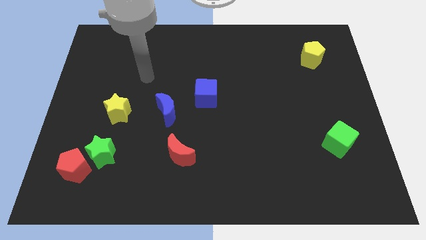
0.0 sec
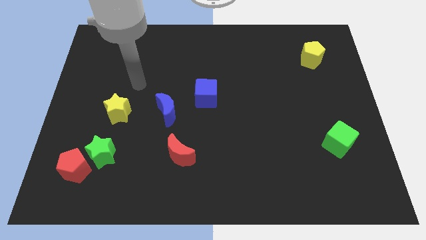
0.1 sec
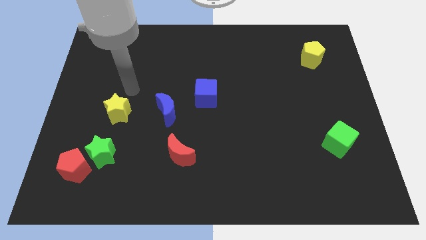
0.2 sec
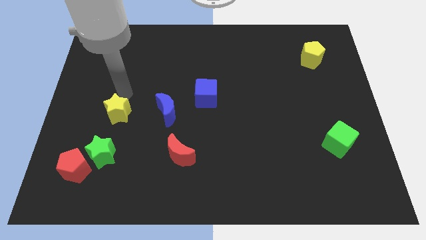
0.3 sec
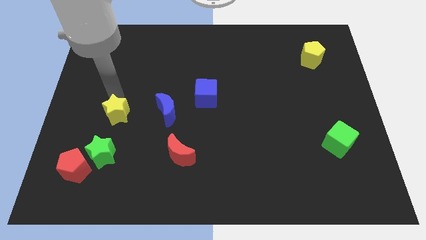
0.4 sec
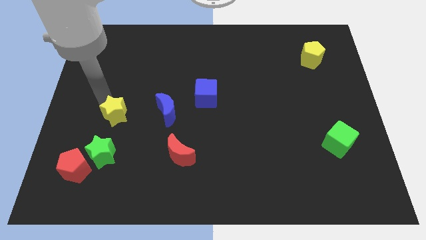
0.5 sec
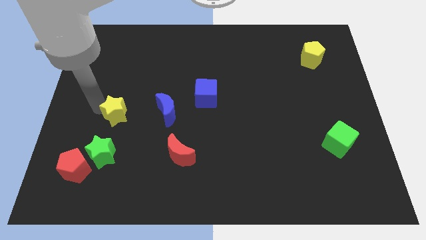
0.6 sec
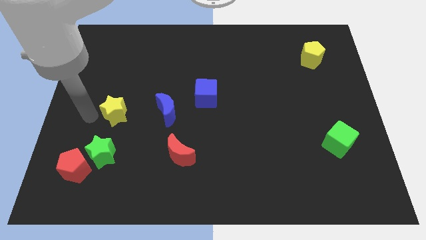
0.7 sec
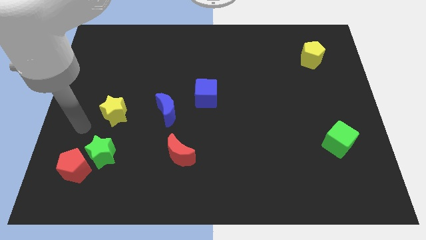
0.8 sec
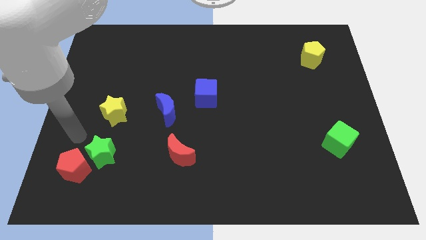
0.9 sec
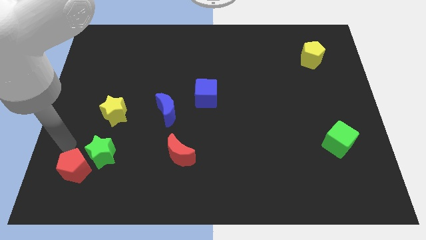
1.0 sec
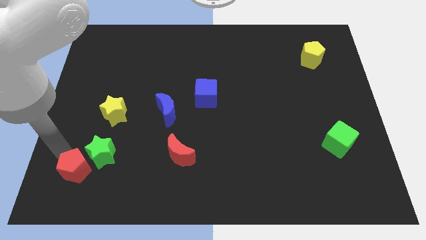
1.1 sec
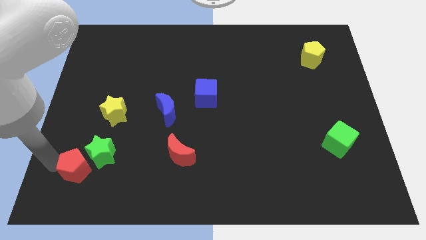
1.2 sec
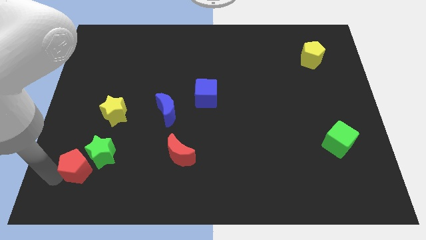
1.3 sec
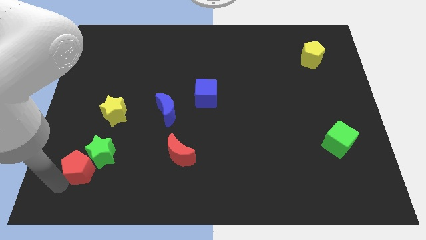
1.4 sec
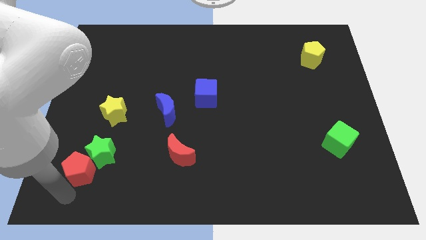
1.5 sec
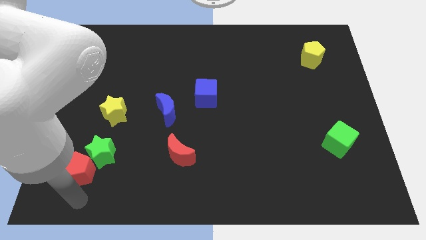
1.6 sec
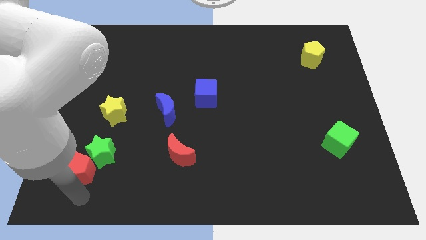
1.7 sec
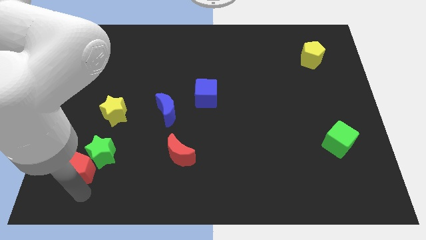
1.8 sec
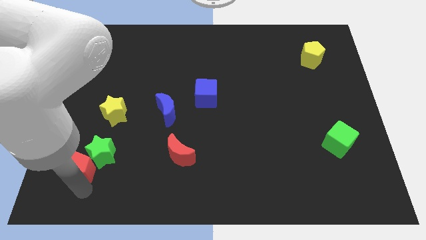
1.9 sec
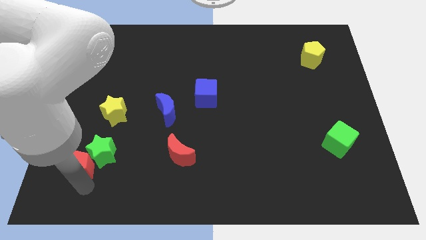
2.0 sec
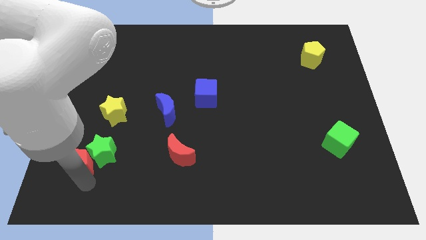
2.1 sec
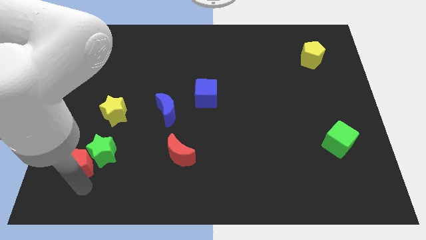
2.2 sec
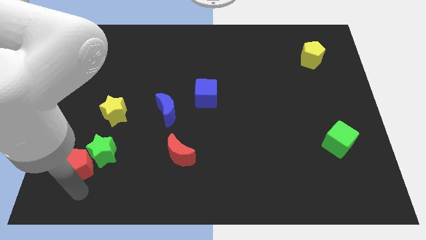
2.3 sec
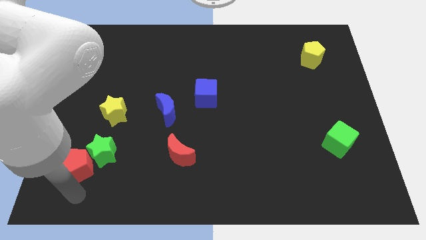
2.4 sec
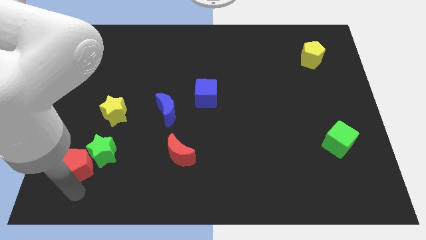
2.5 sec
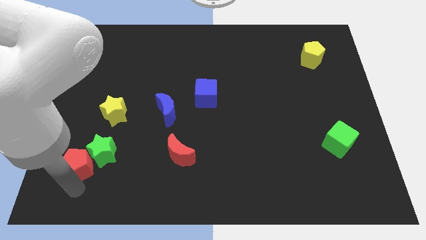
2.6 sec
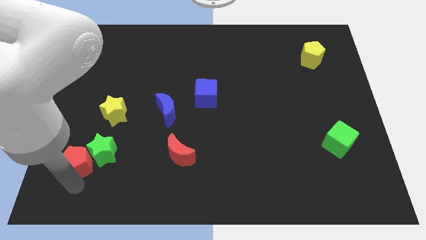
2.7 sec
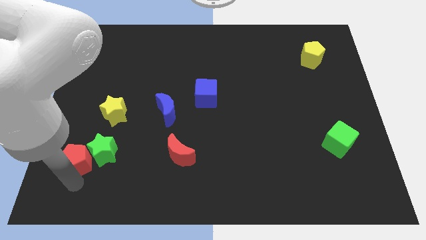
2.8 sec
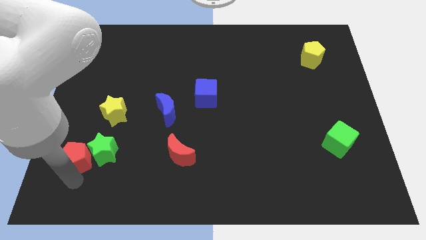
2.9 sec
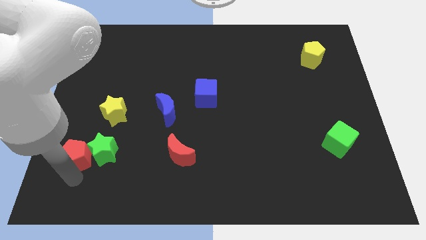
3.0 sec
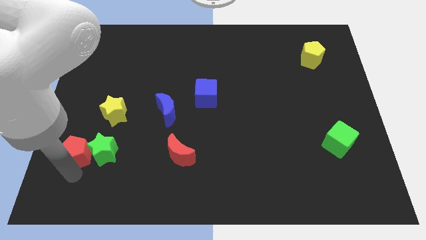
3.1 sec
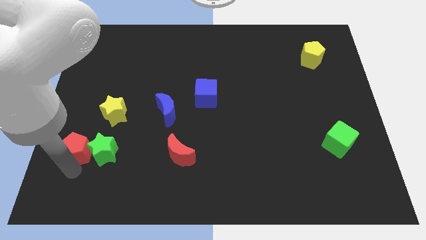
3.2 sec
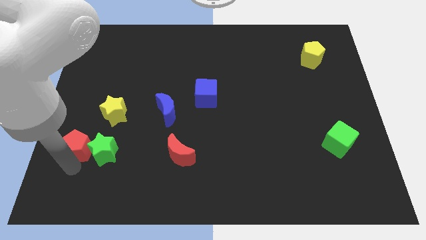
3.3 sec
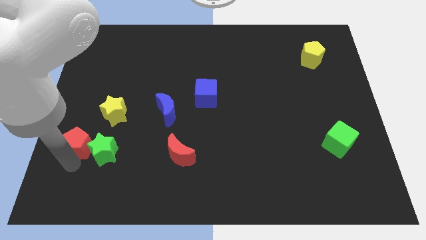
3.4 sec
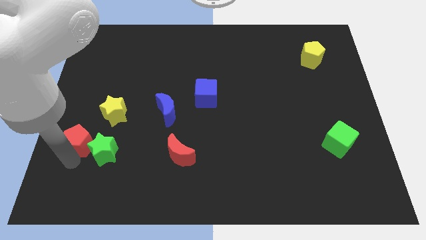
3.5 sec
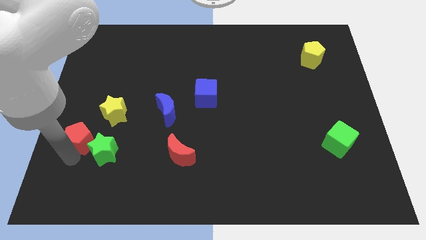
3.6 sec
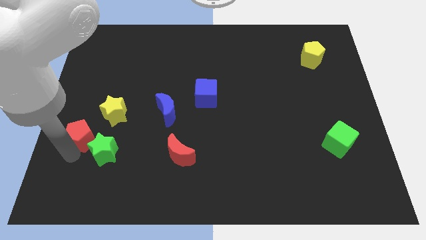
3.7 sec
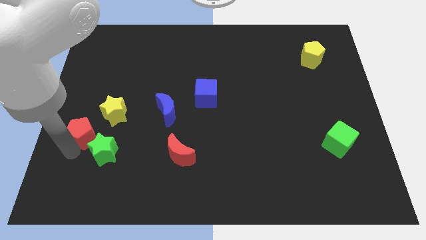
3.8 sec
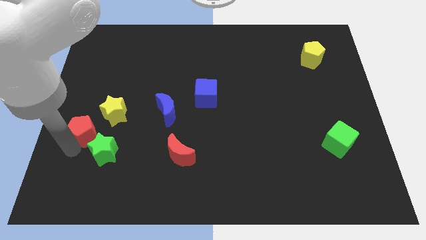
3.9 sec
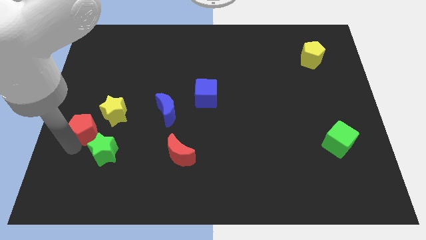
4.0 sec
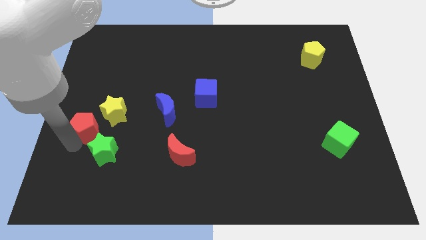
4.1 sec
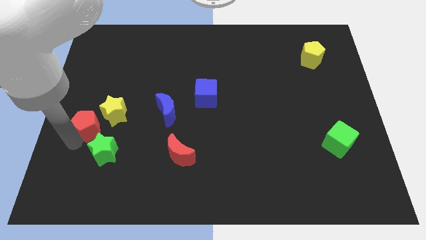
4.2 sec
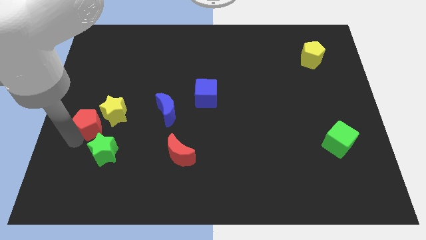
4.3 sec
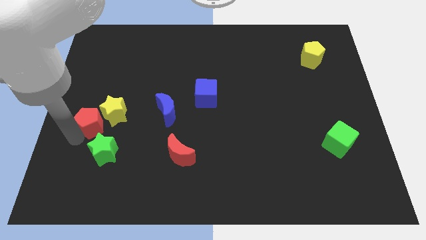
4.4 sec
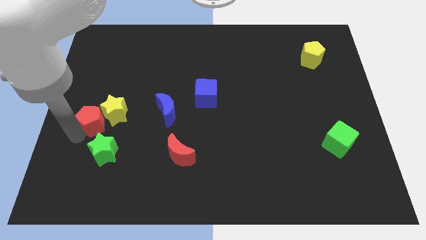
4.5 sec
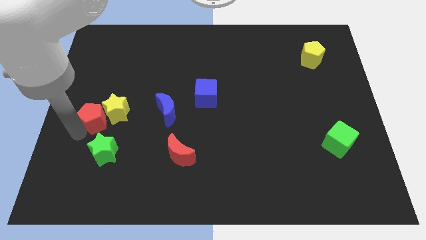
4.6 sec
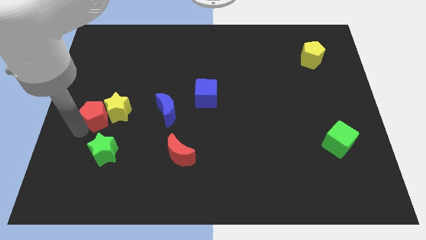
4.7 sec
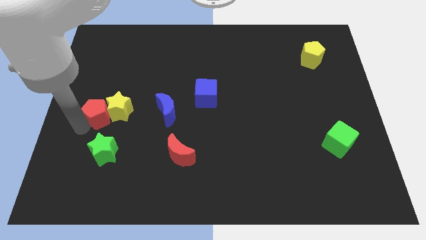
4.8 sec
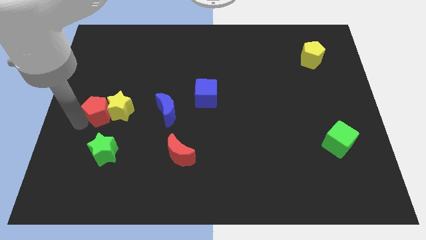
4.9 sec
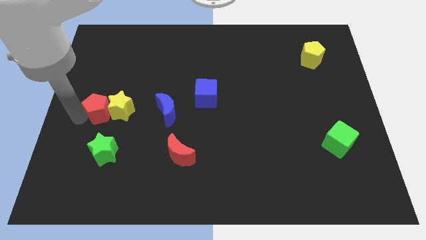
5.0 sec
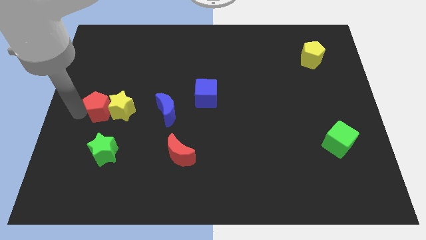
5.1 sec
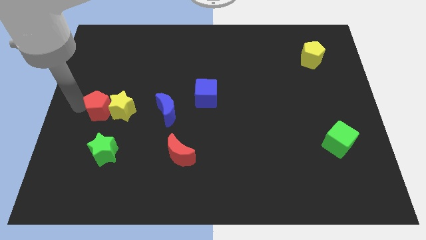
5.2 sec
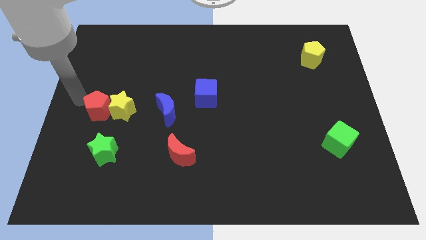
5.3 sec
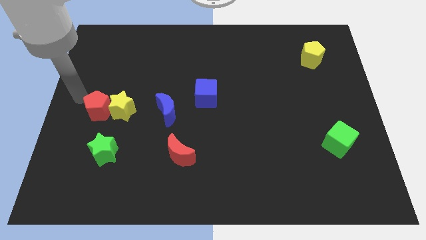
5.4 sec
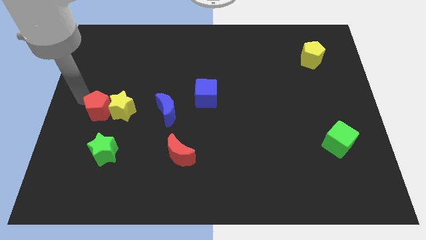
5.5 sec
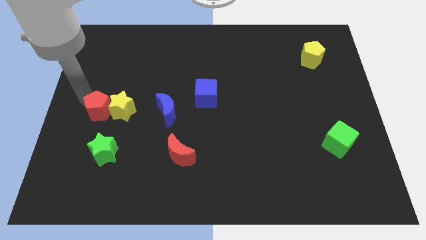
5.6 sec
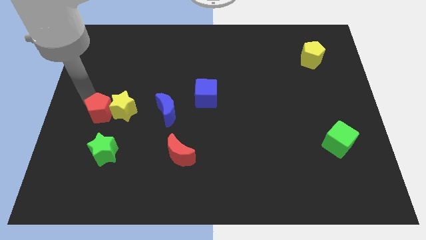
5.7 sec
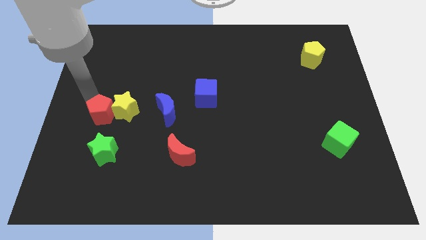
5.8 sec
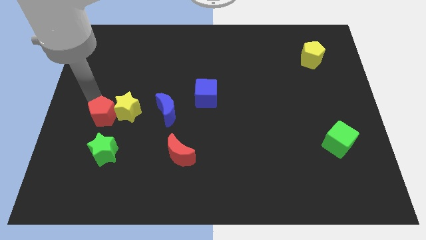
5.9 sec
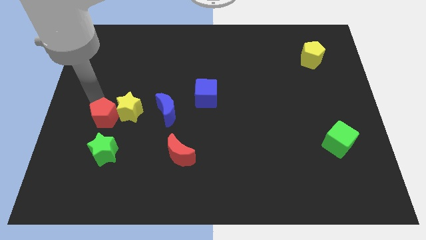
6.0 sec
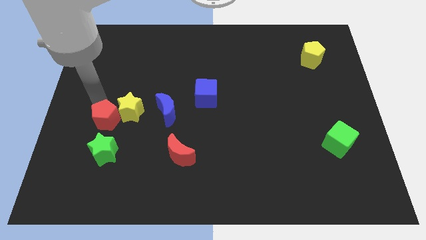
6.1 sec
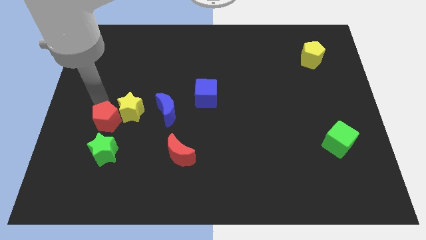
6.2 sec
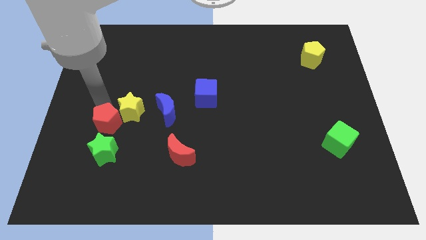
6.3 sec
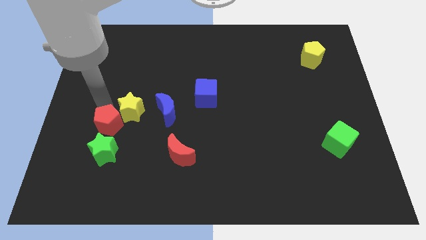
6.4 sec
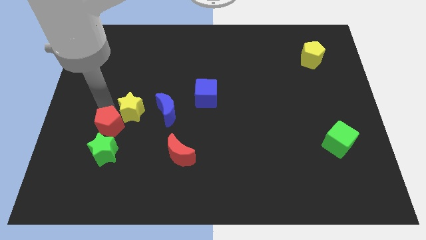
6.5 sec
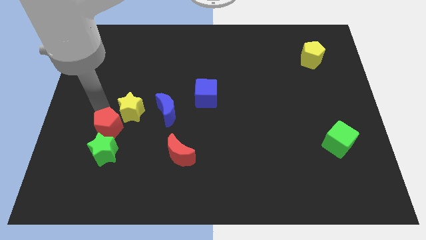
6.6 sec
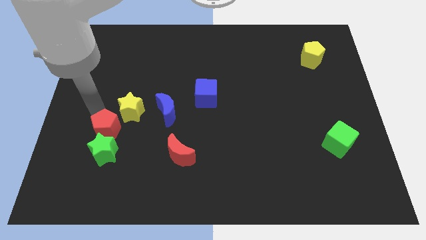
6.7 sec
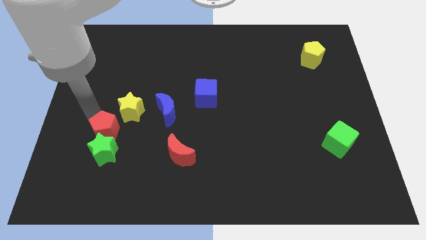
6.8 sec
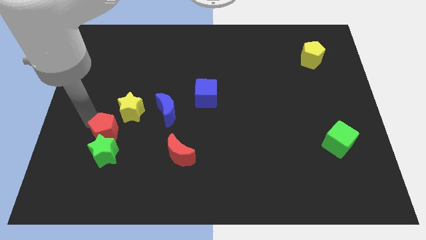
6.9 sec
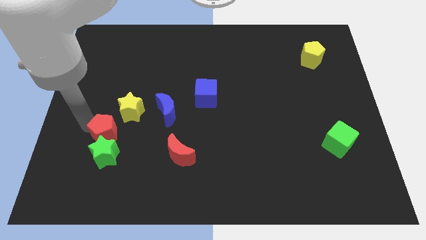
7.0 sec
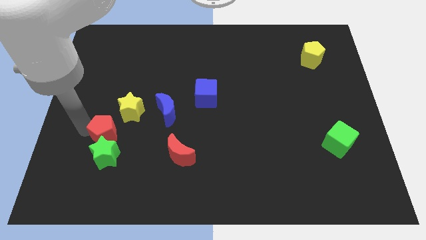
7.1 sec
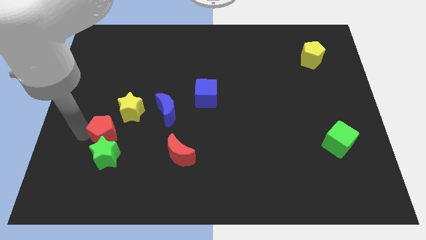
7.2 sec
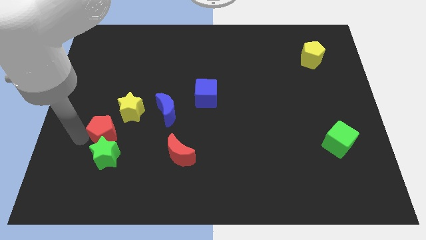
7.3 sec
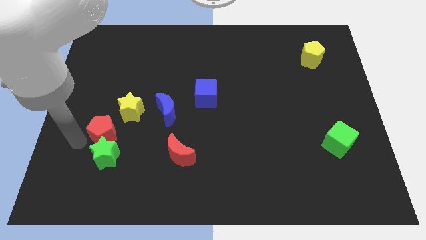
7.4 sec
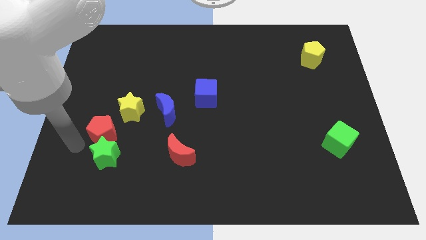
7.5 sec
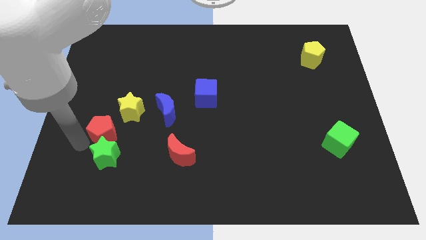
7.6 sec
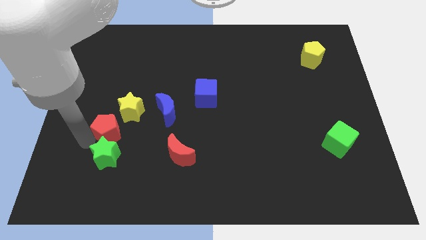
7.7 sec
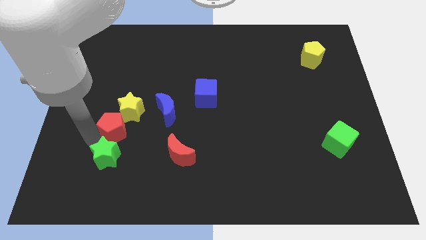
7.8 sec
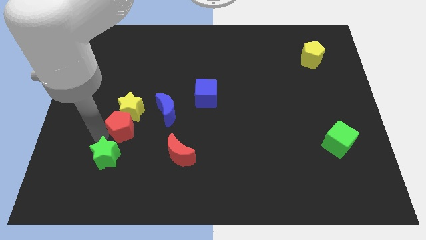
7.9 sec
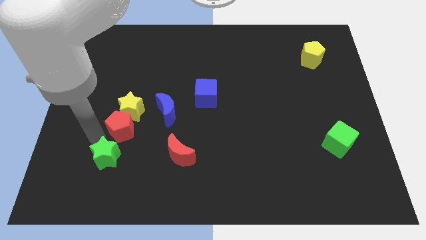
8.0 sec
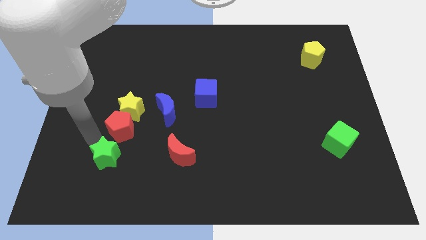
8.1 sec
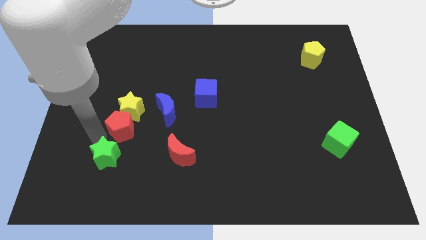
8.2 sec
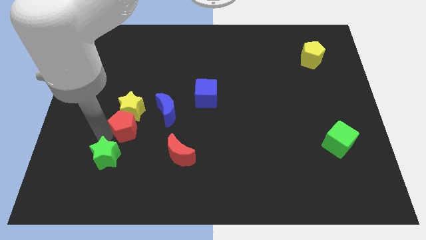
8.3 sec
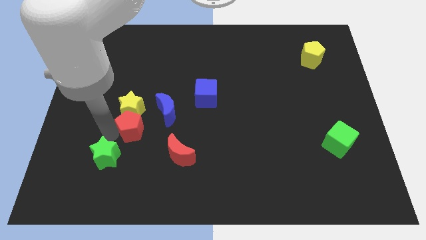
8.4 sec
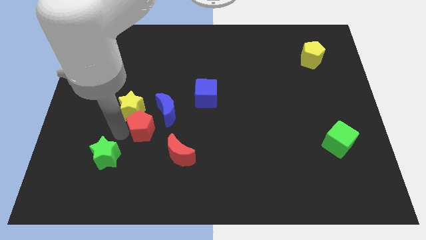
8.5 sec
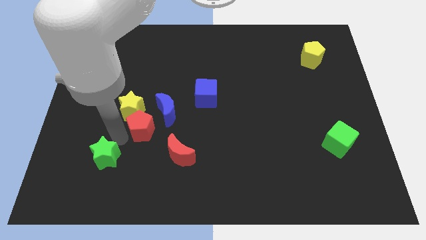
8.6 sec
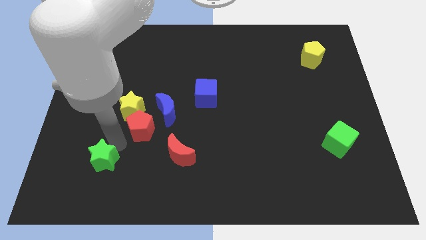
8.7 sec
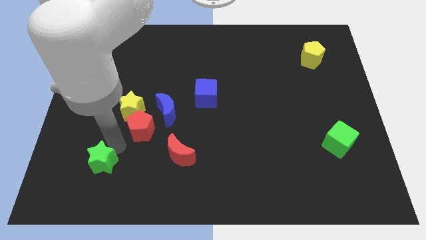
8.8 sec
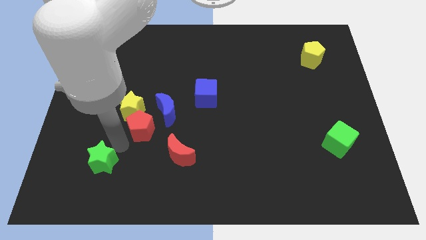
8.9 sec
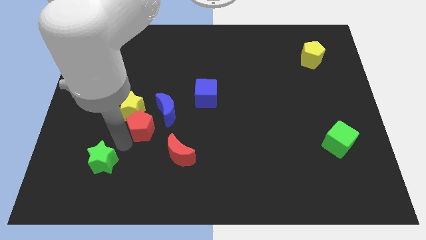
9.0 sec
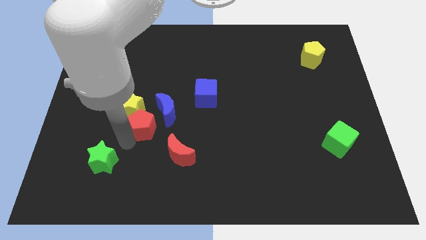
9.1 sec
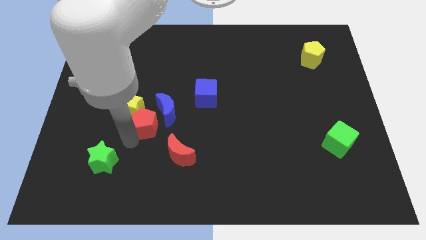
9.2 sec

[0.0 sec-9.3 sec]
slide the red pentagon to the blue moon
